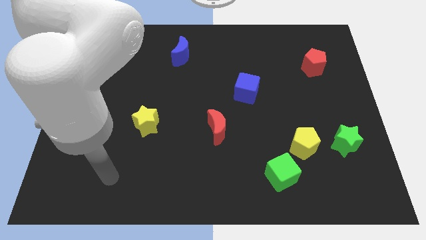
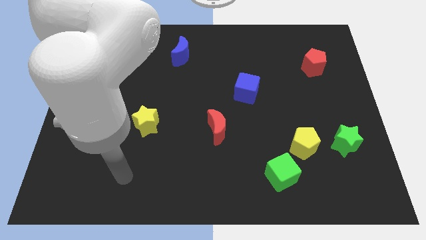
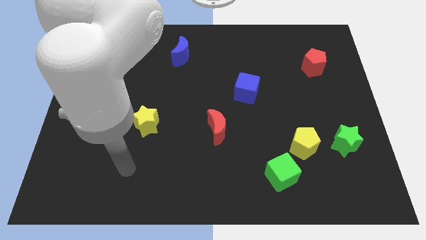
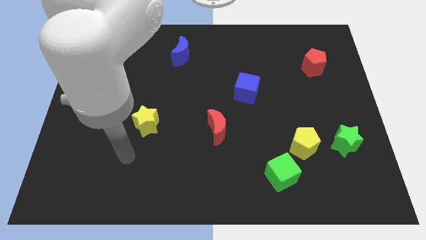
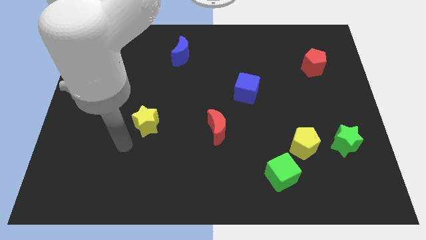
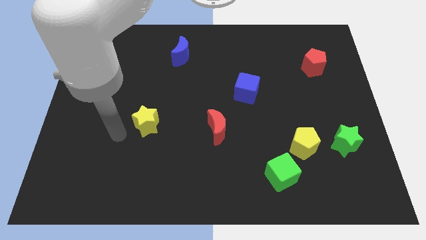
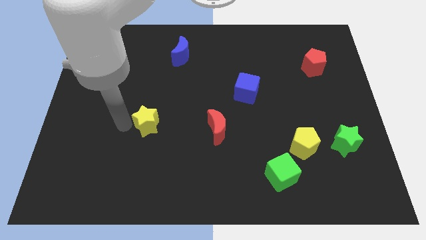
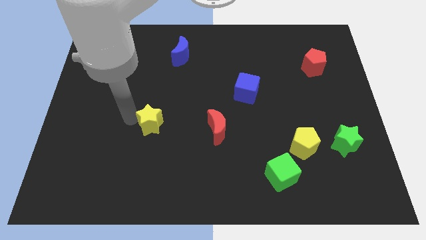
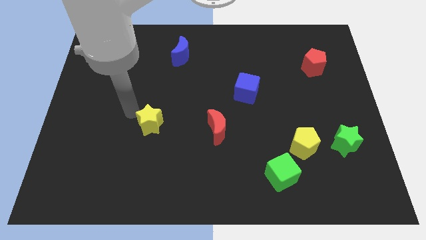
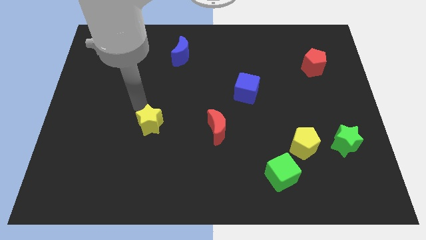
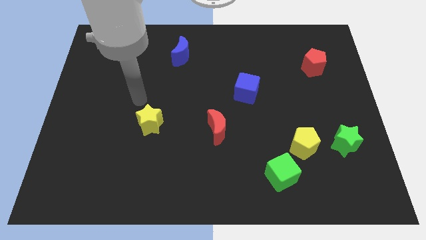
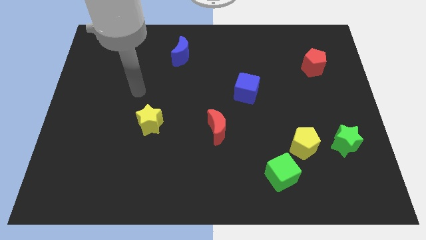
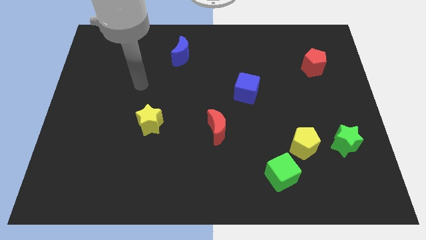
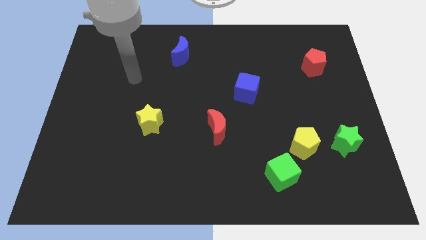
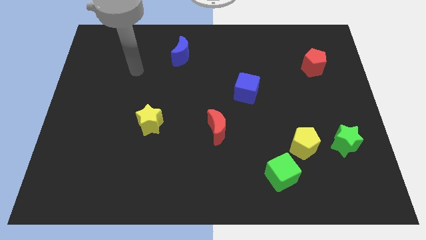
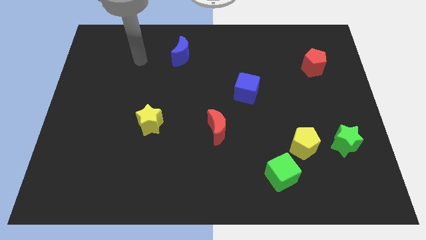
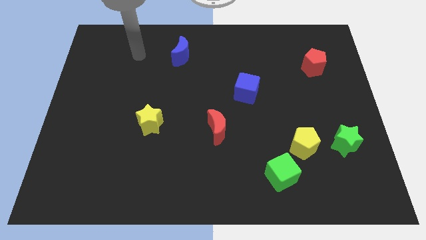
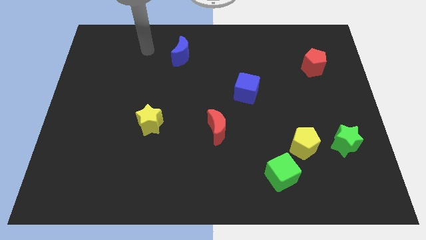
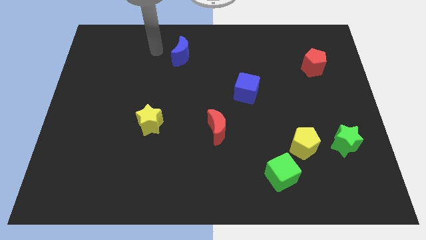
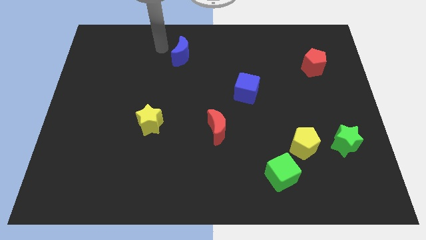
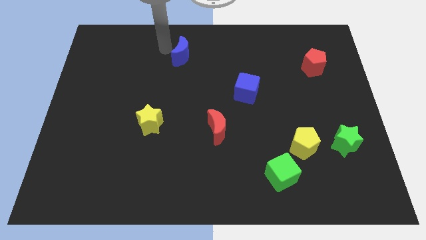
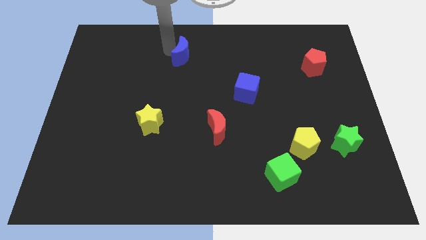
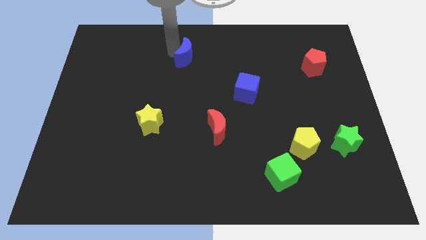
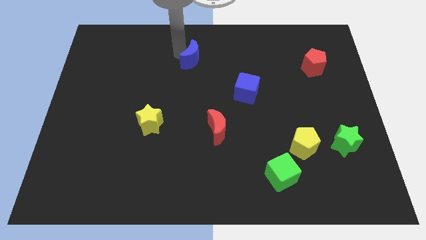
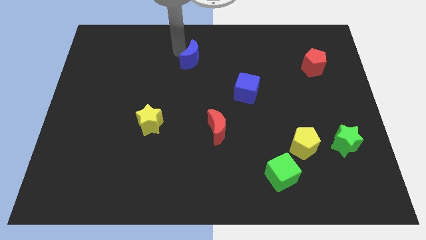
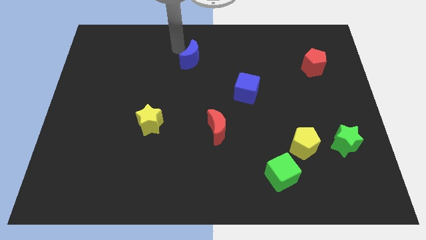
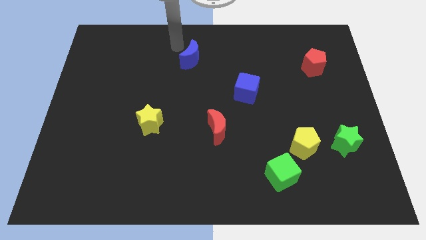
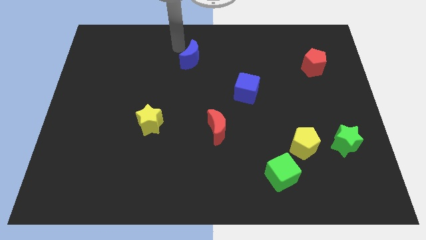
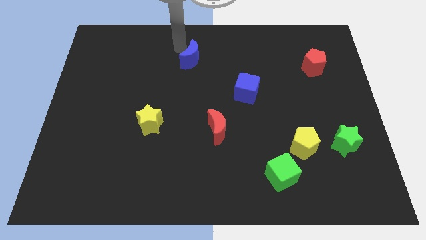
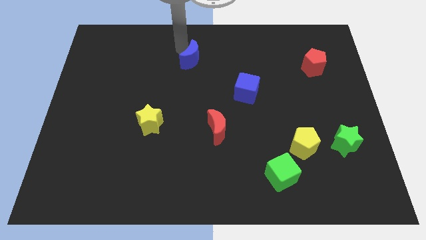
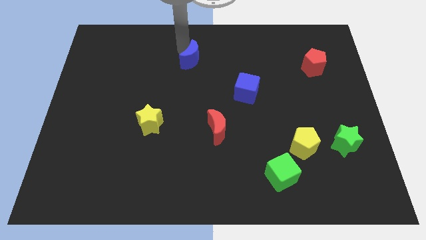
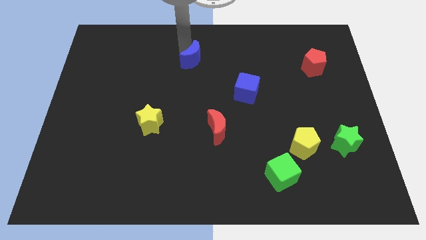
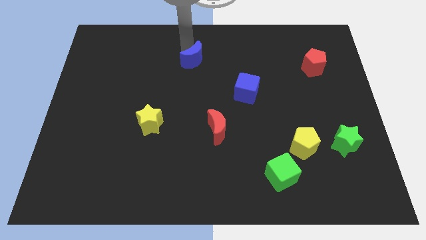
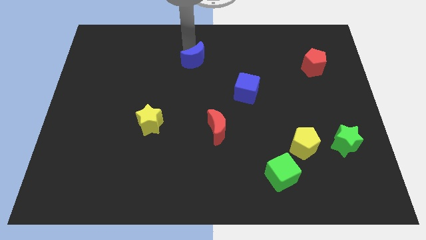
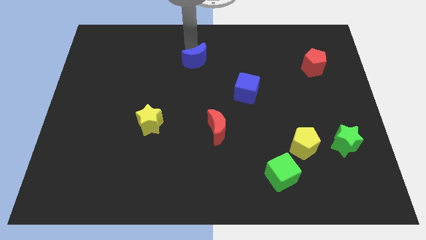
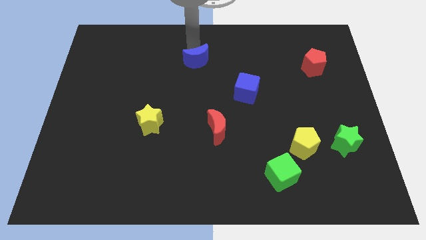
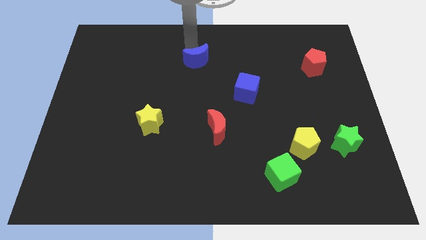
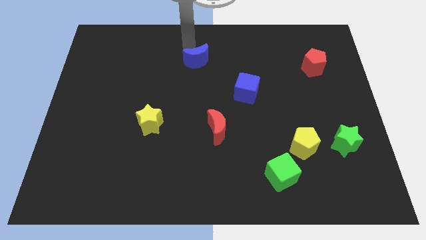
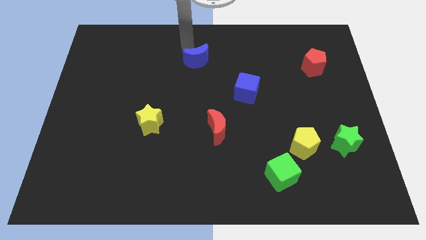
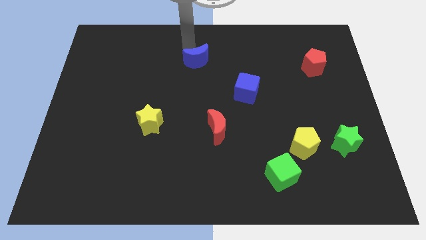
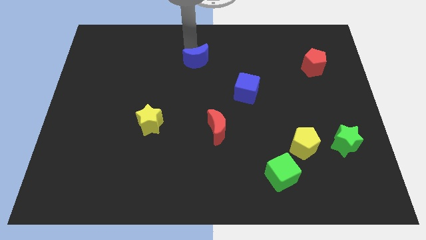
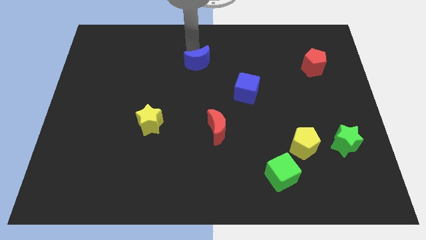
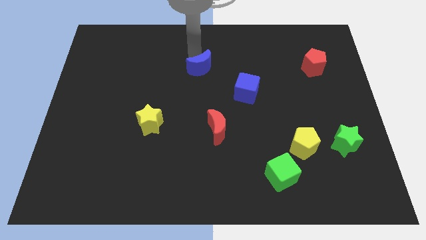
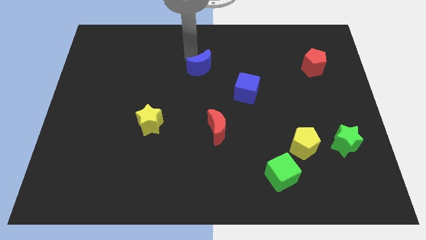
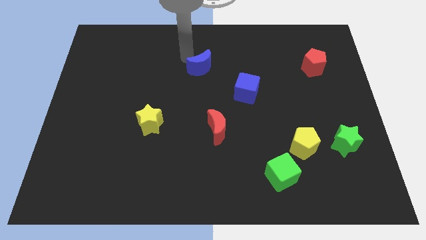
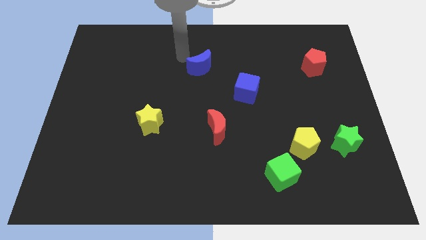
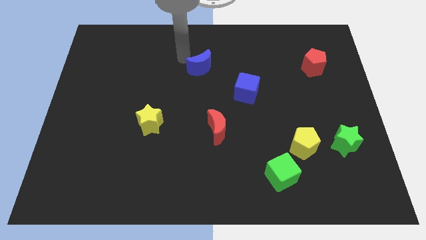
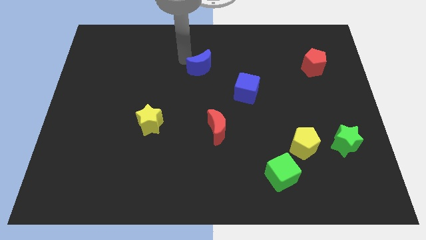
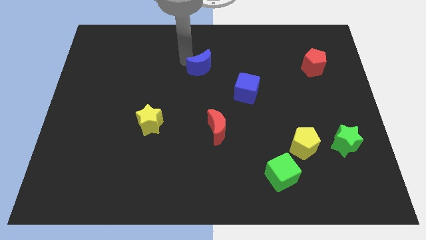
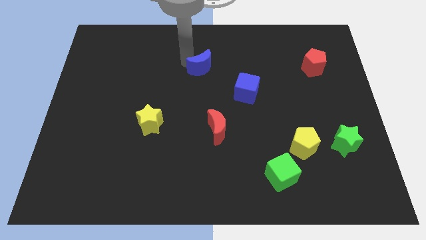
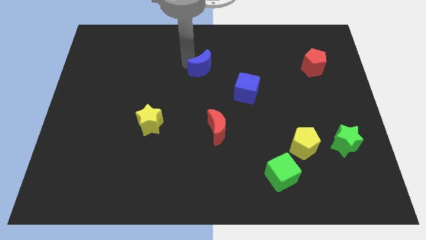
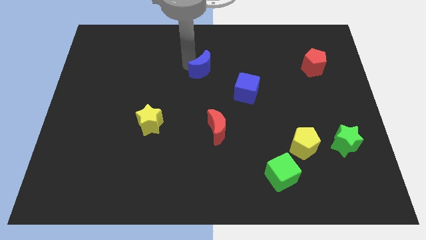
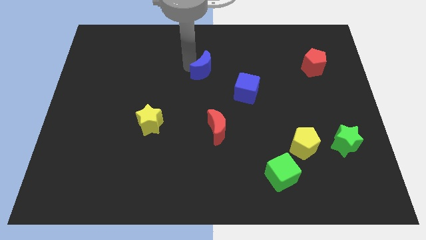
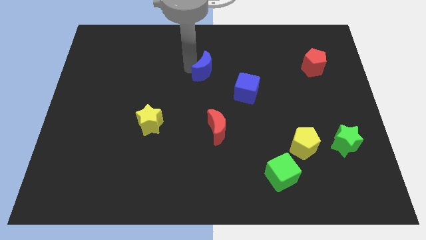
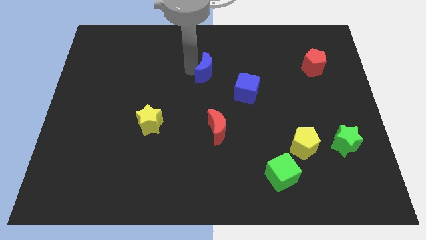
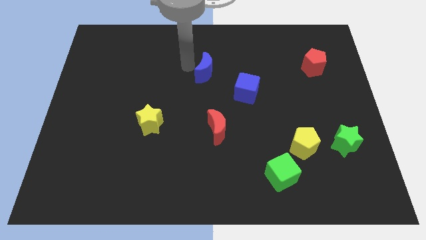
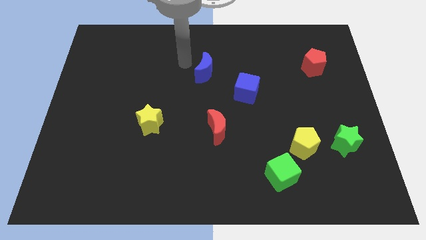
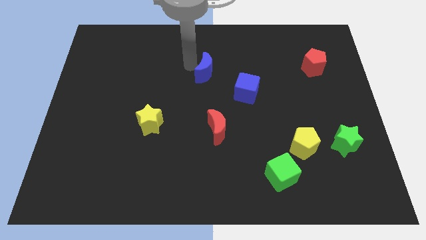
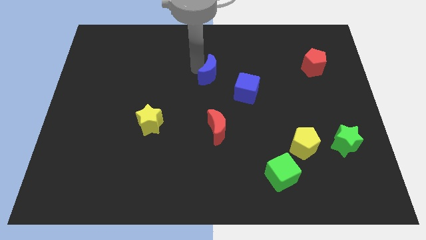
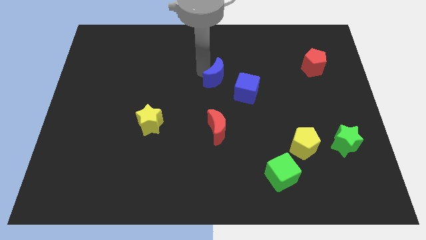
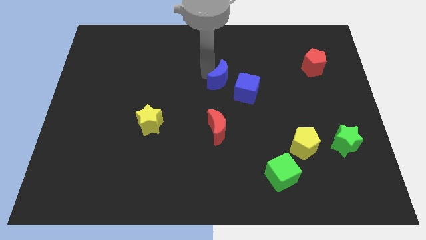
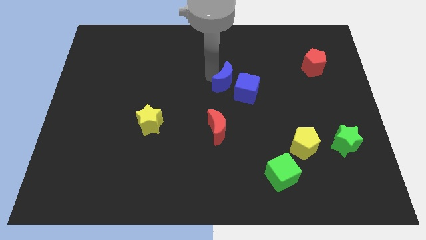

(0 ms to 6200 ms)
slide the blue moon next to the blue cube
